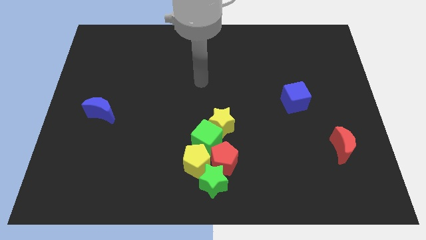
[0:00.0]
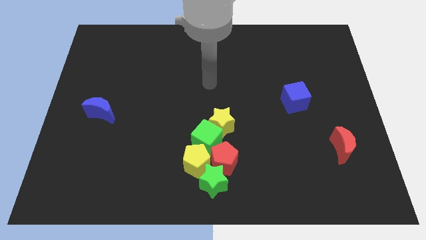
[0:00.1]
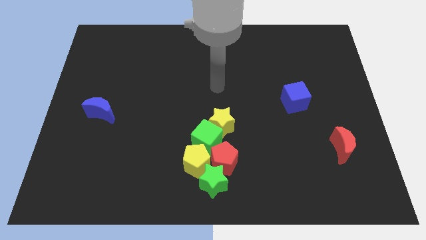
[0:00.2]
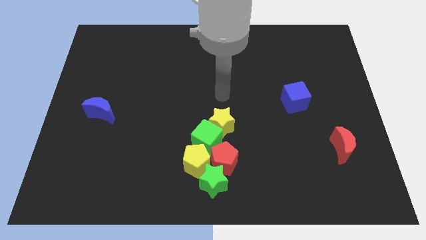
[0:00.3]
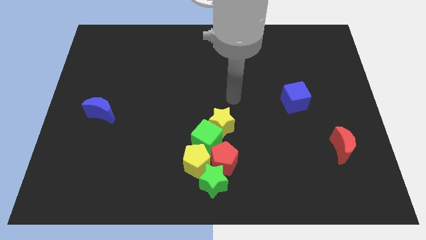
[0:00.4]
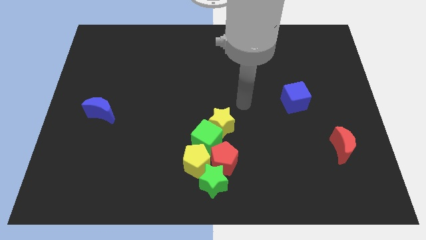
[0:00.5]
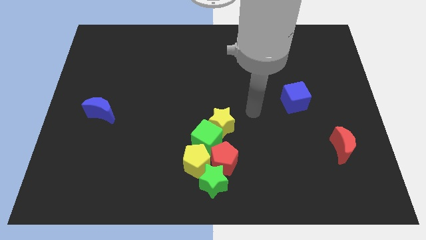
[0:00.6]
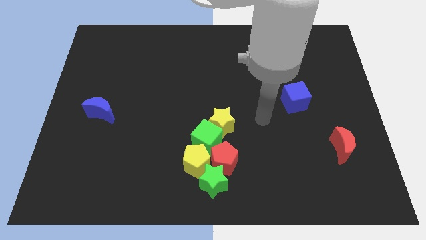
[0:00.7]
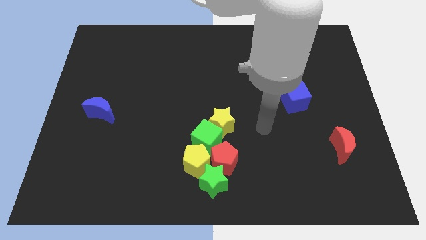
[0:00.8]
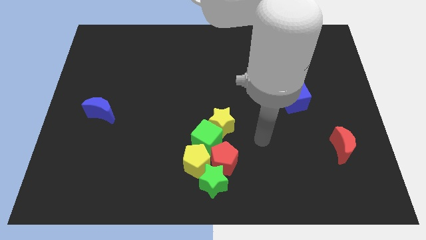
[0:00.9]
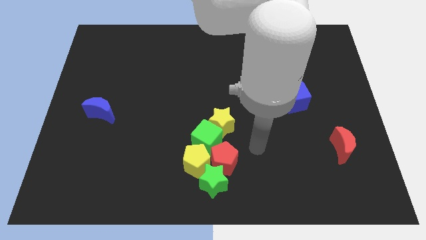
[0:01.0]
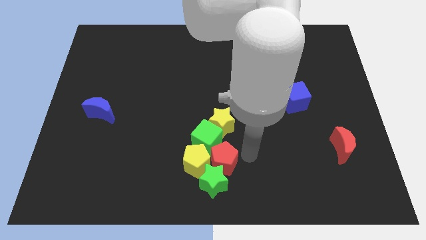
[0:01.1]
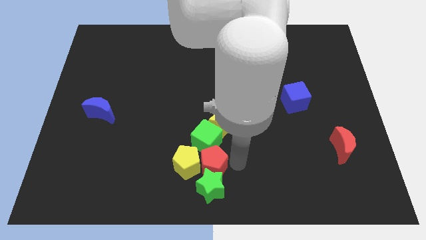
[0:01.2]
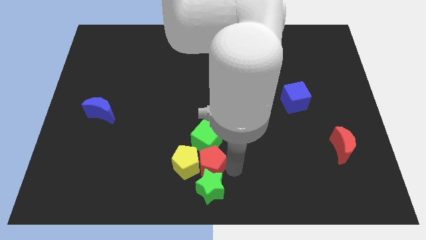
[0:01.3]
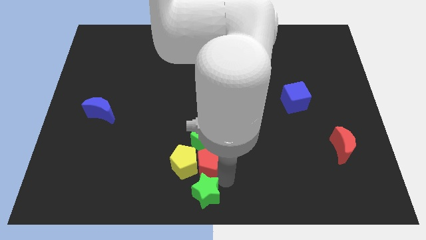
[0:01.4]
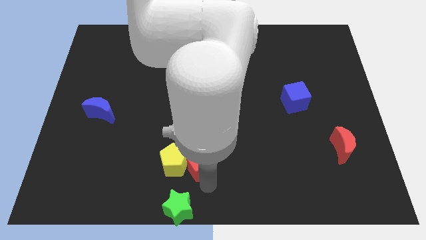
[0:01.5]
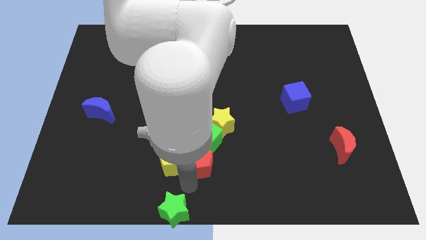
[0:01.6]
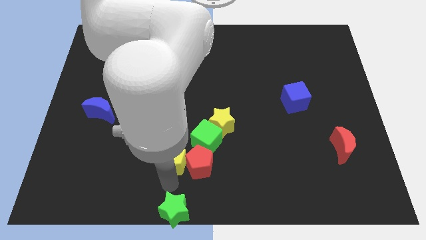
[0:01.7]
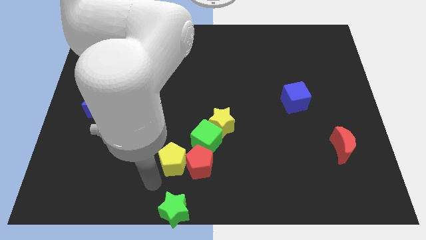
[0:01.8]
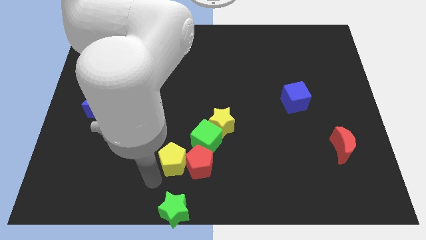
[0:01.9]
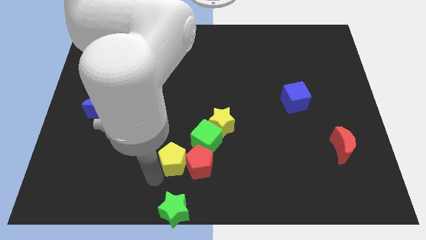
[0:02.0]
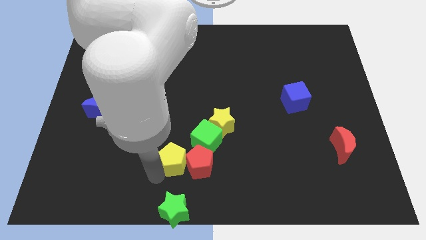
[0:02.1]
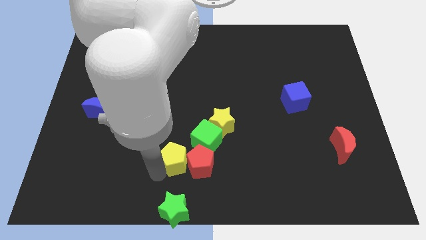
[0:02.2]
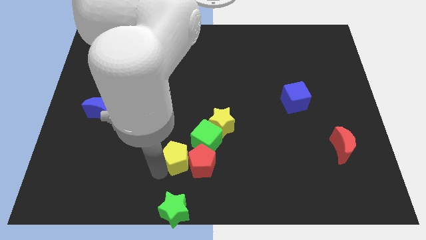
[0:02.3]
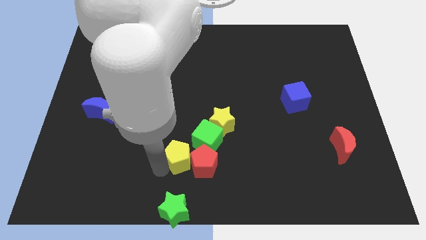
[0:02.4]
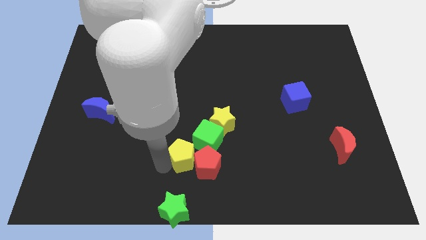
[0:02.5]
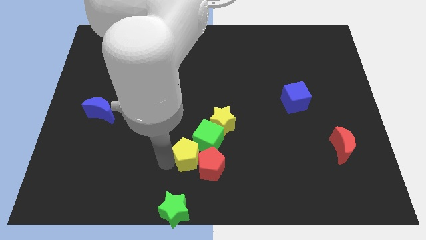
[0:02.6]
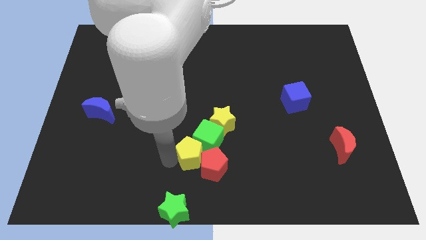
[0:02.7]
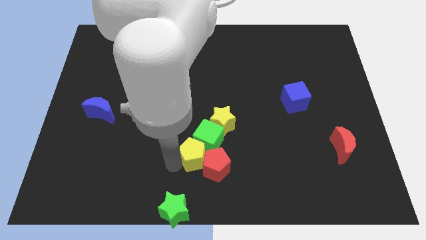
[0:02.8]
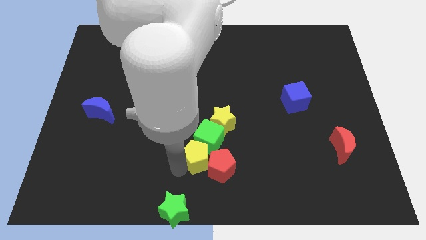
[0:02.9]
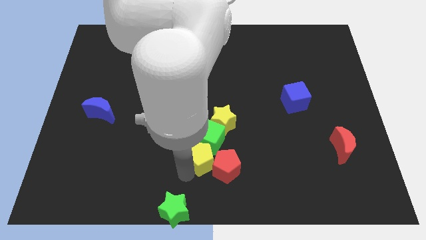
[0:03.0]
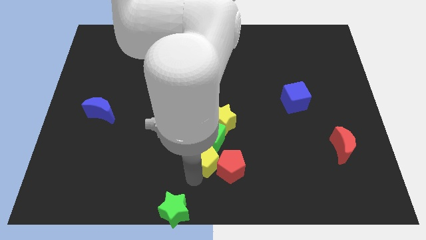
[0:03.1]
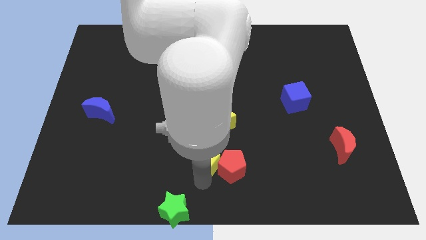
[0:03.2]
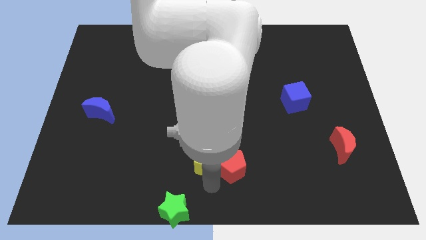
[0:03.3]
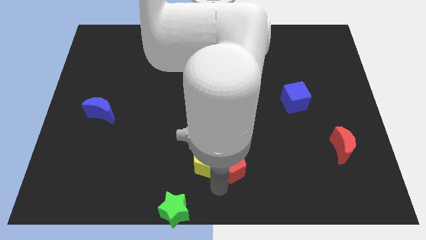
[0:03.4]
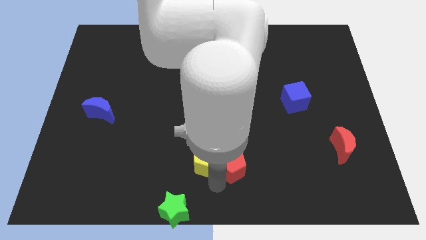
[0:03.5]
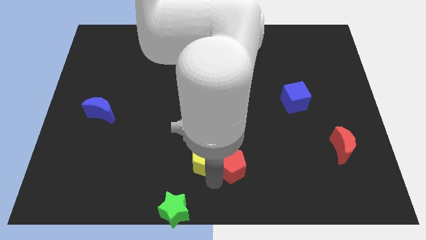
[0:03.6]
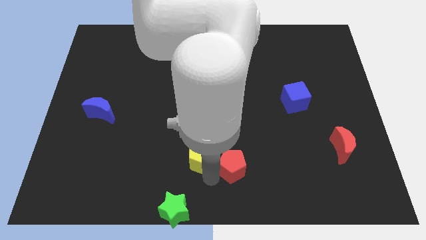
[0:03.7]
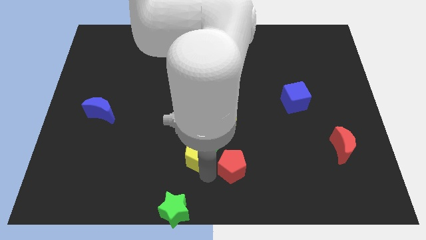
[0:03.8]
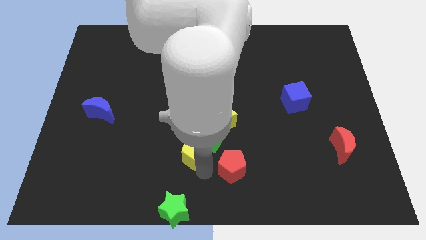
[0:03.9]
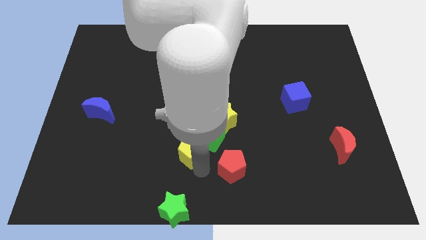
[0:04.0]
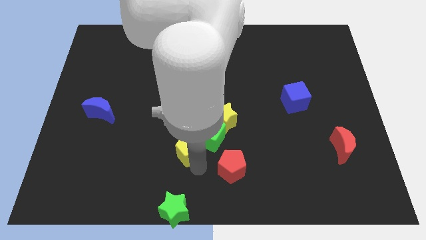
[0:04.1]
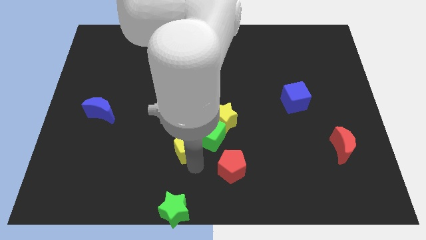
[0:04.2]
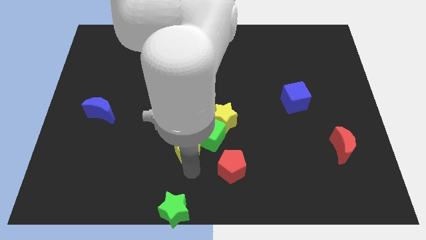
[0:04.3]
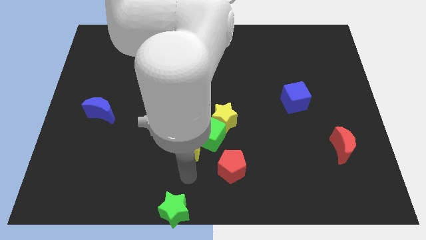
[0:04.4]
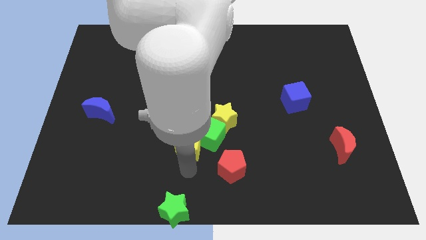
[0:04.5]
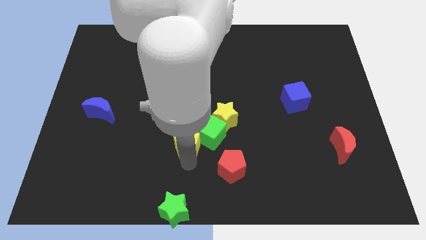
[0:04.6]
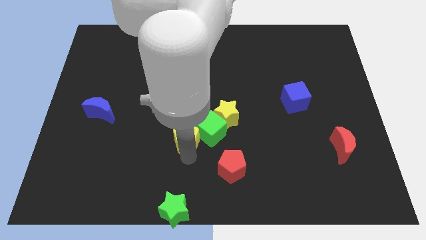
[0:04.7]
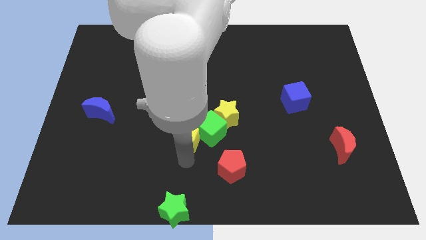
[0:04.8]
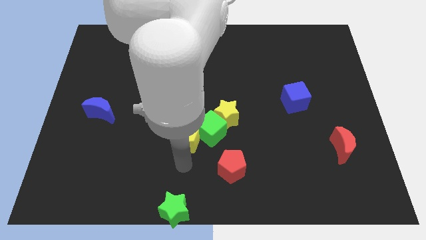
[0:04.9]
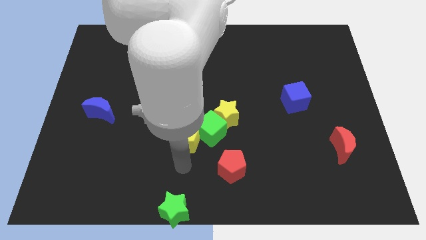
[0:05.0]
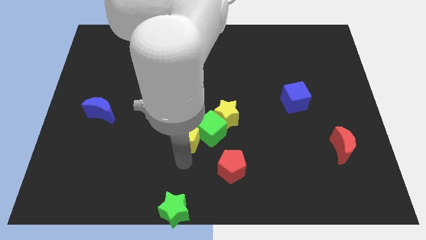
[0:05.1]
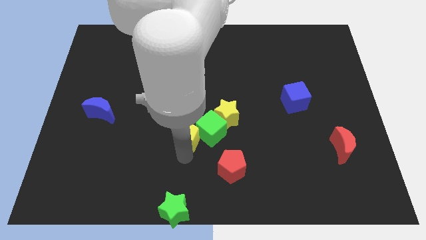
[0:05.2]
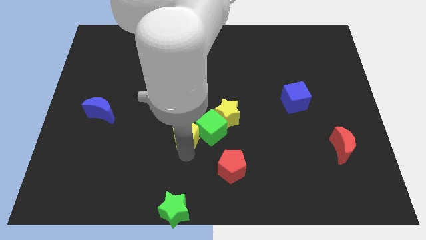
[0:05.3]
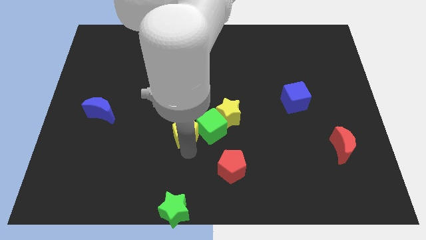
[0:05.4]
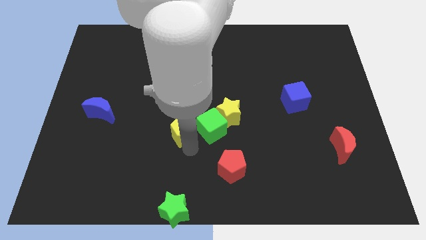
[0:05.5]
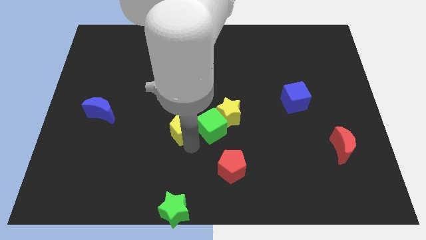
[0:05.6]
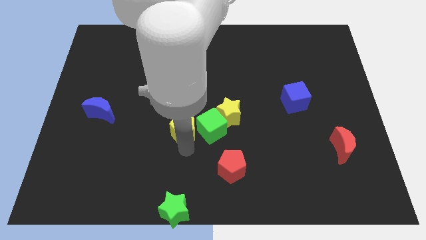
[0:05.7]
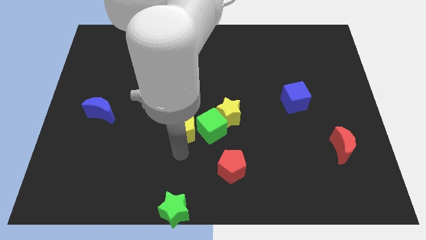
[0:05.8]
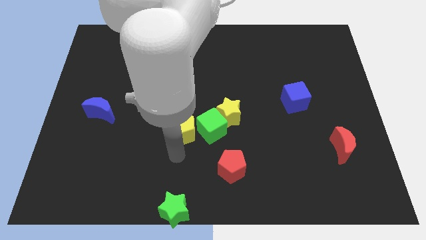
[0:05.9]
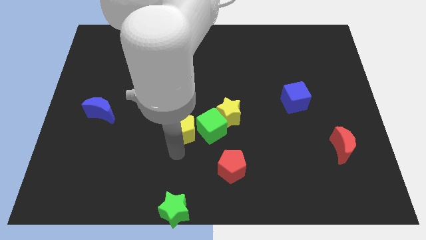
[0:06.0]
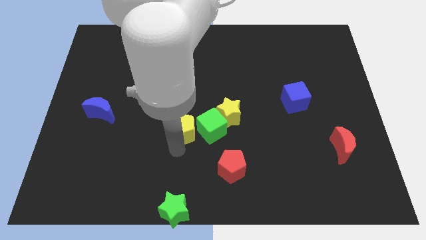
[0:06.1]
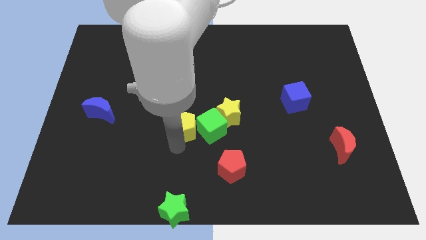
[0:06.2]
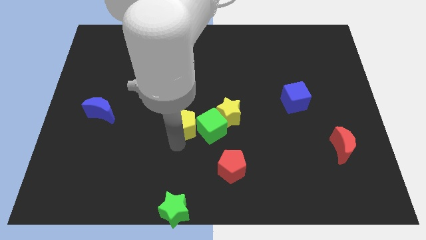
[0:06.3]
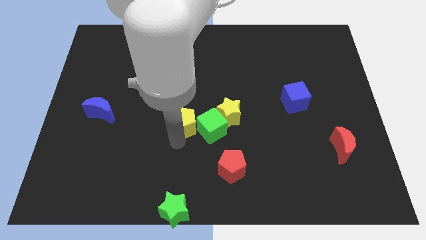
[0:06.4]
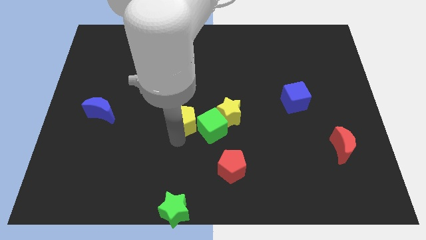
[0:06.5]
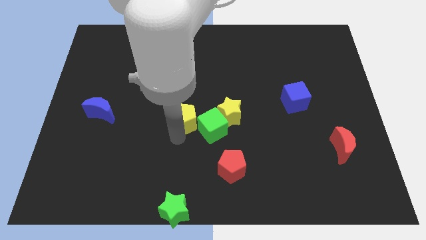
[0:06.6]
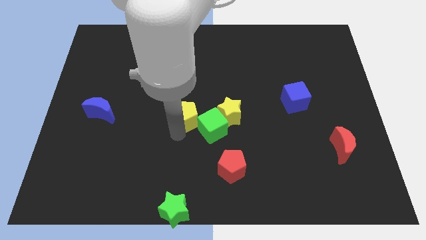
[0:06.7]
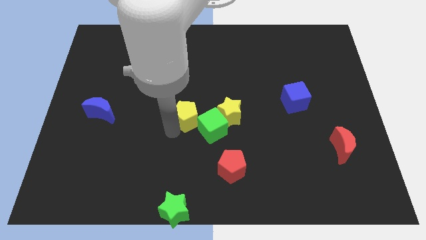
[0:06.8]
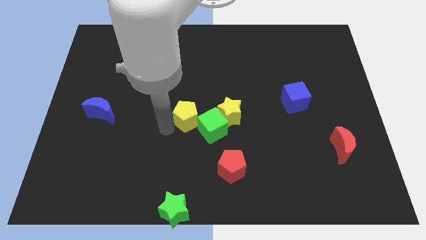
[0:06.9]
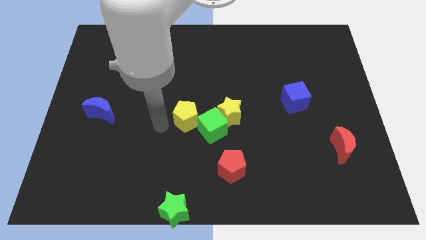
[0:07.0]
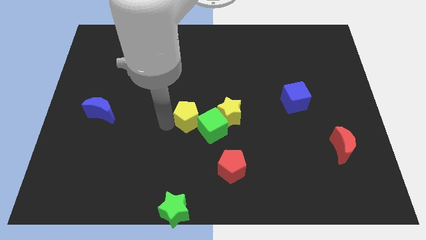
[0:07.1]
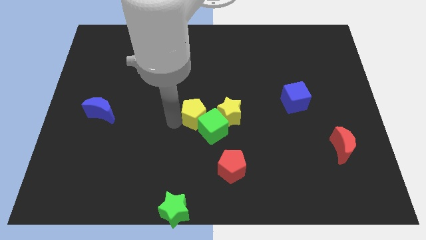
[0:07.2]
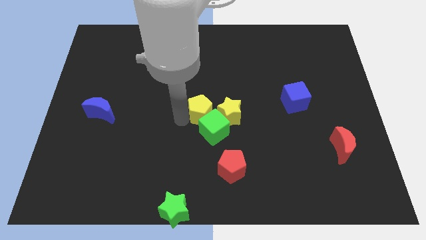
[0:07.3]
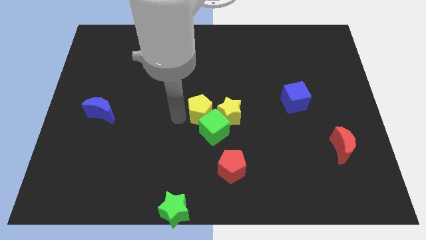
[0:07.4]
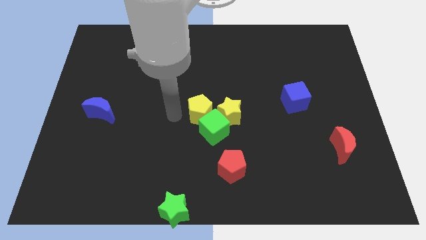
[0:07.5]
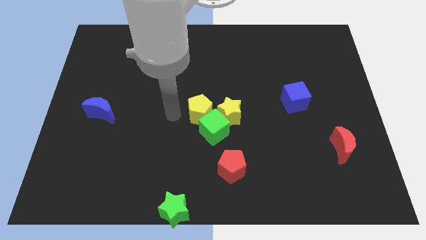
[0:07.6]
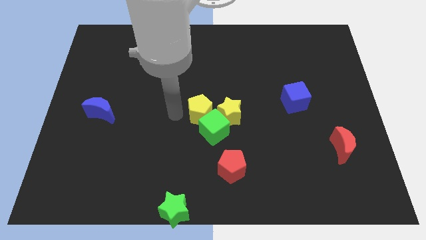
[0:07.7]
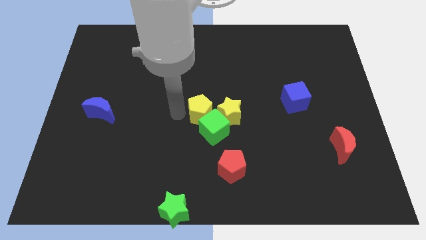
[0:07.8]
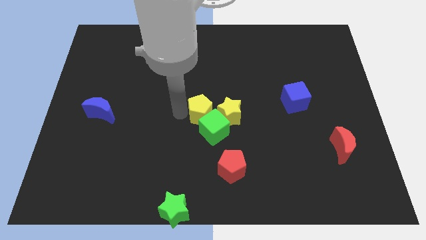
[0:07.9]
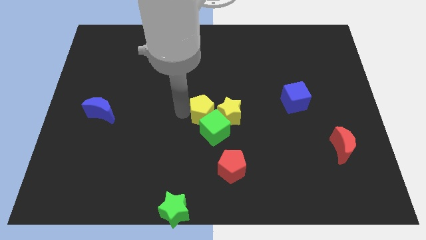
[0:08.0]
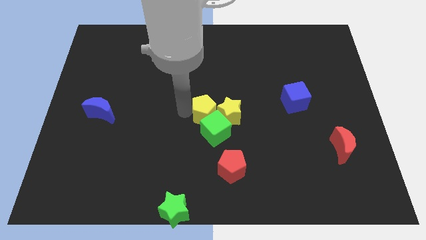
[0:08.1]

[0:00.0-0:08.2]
move the yellow pentagon slightly upwards and to the right

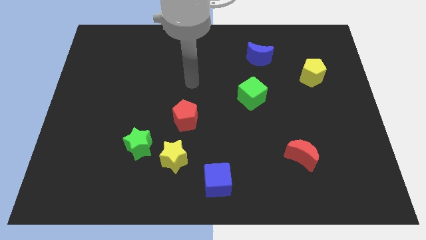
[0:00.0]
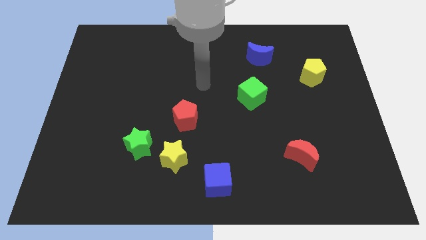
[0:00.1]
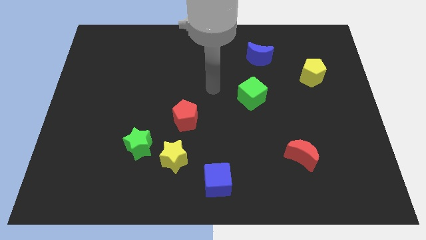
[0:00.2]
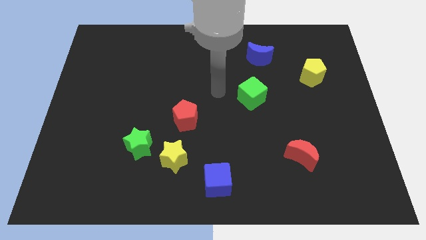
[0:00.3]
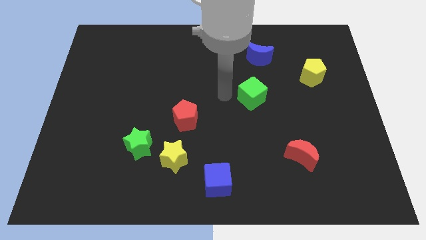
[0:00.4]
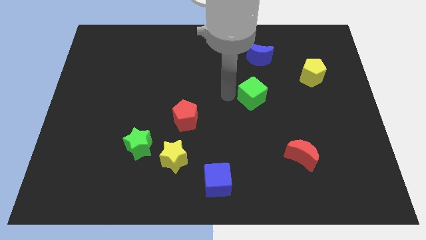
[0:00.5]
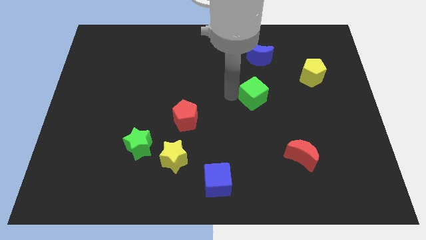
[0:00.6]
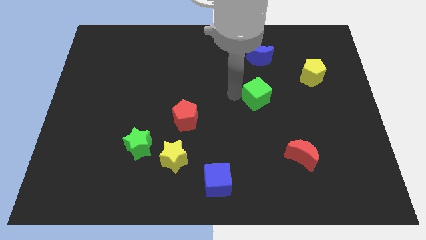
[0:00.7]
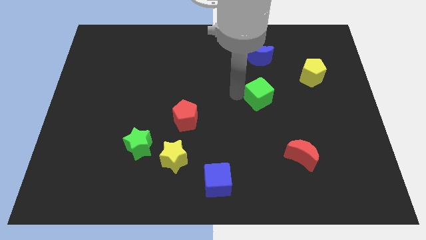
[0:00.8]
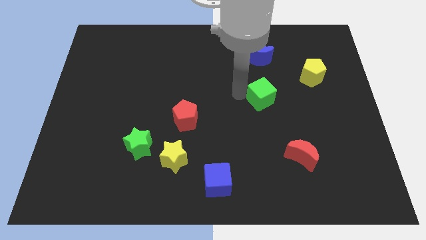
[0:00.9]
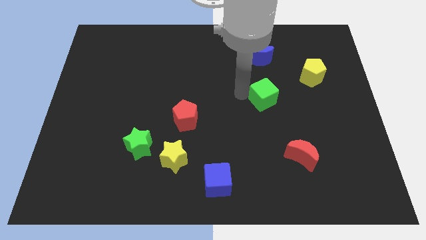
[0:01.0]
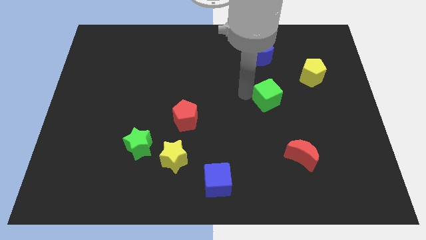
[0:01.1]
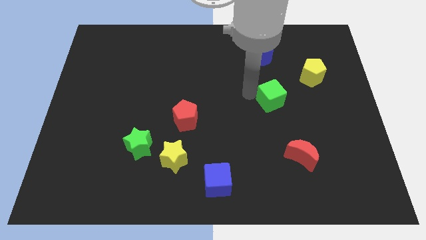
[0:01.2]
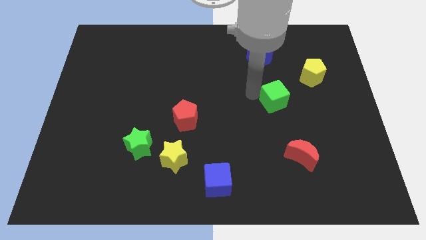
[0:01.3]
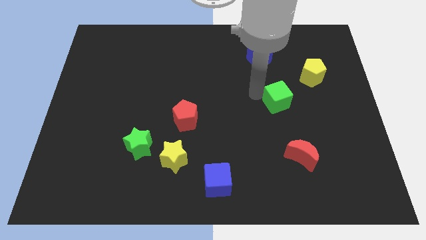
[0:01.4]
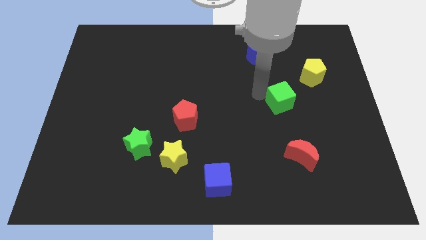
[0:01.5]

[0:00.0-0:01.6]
slightly move the green cube to the right
